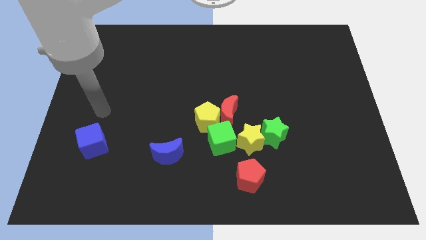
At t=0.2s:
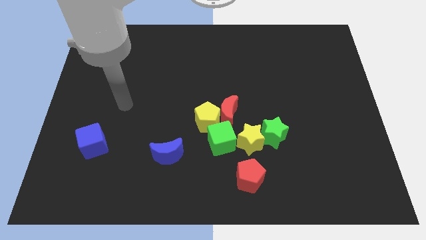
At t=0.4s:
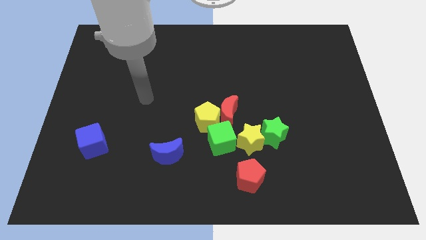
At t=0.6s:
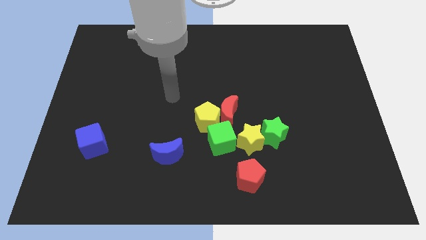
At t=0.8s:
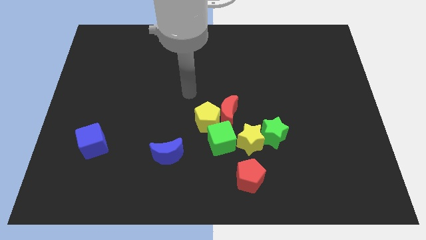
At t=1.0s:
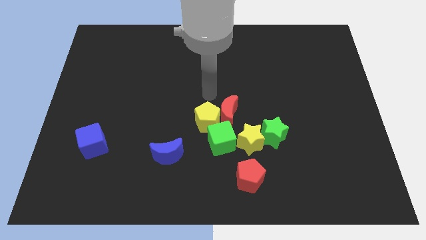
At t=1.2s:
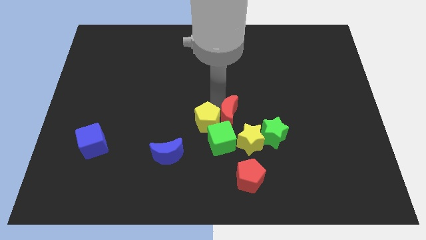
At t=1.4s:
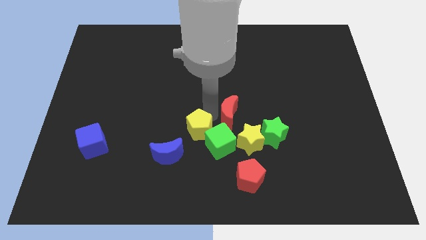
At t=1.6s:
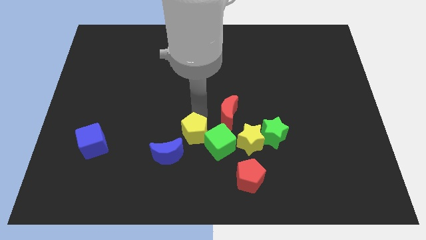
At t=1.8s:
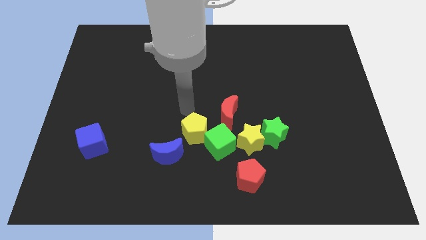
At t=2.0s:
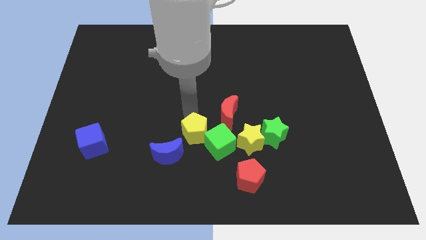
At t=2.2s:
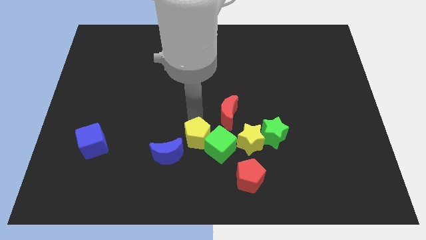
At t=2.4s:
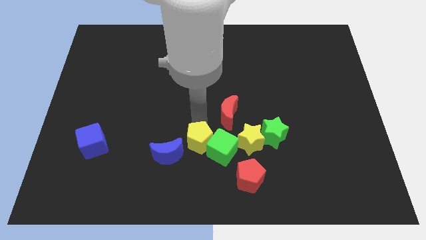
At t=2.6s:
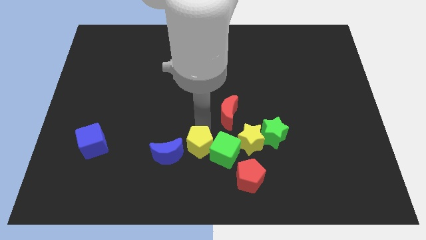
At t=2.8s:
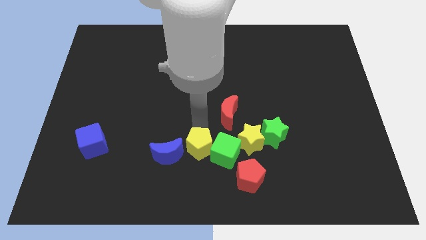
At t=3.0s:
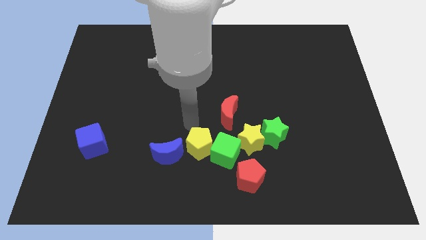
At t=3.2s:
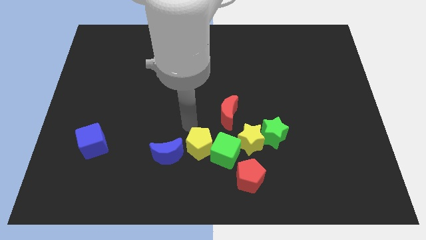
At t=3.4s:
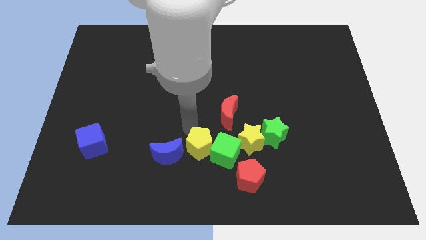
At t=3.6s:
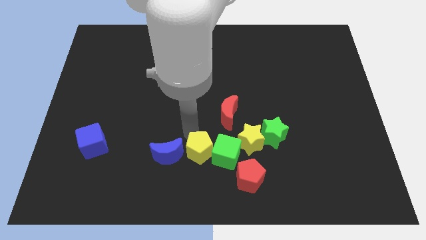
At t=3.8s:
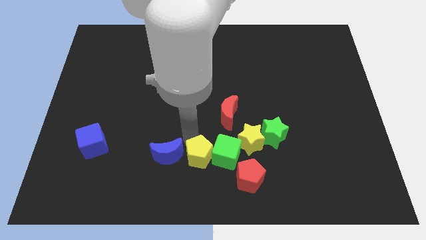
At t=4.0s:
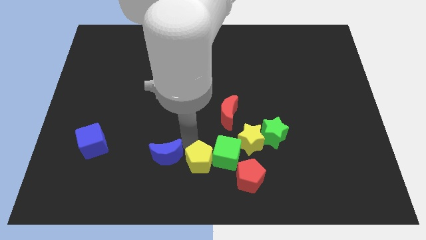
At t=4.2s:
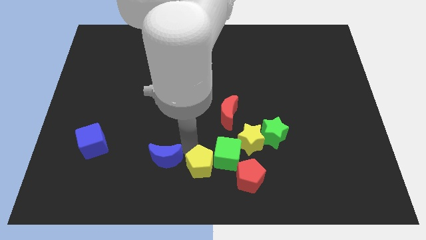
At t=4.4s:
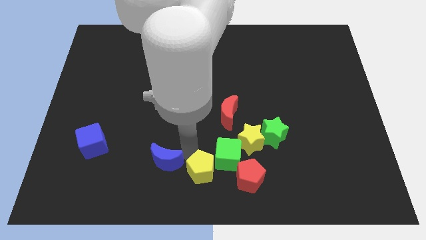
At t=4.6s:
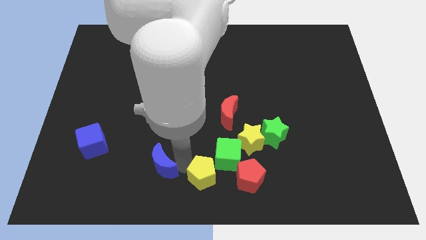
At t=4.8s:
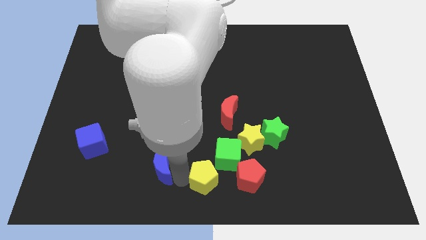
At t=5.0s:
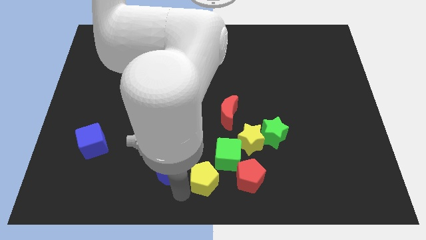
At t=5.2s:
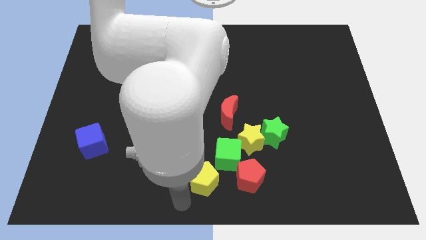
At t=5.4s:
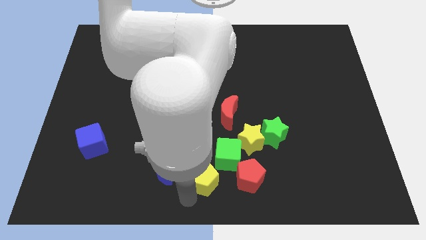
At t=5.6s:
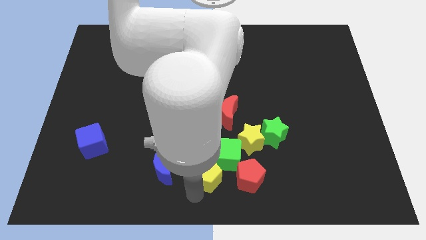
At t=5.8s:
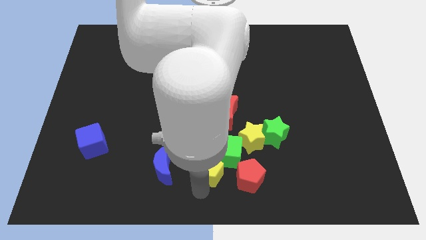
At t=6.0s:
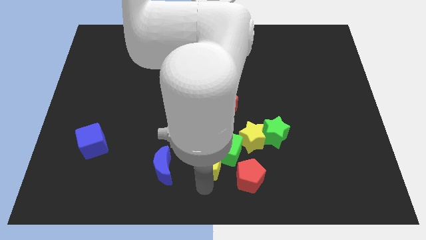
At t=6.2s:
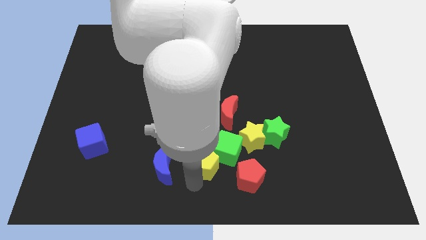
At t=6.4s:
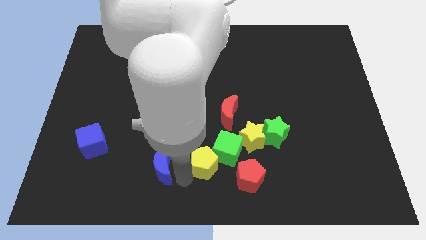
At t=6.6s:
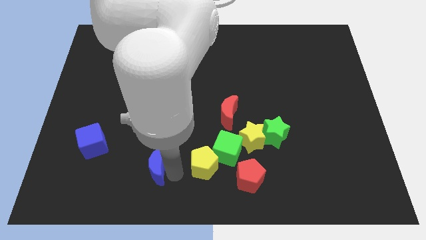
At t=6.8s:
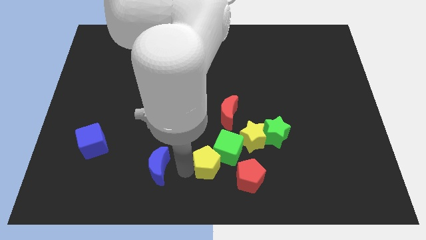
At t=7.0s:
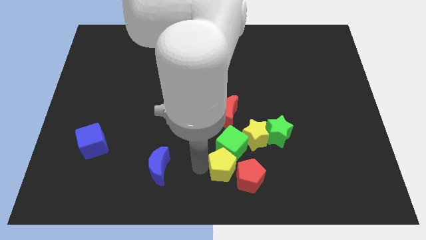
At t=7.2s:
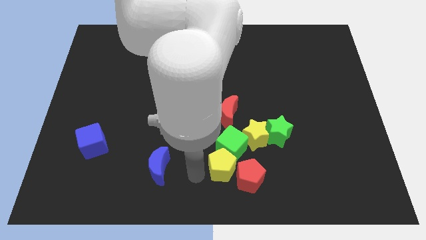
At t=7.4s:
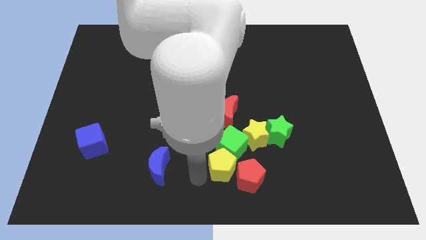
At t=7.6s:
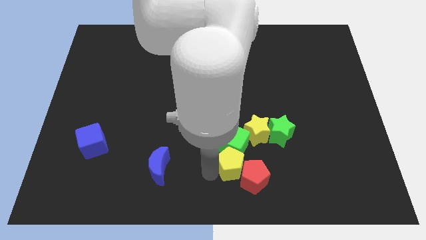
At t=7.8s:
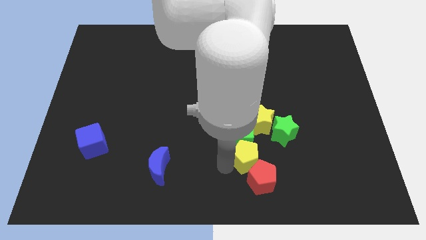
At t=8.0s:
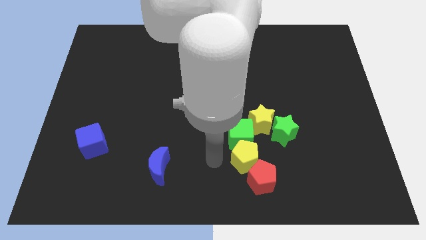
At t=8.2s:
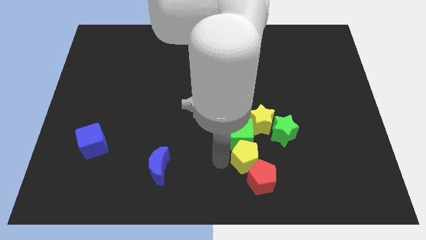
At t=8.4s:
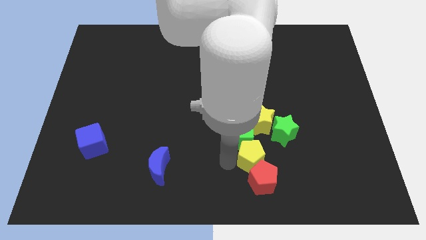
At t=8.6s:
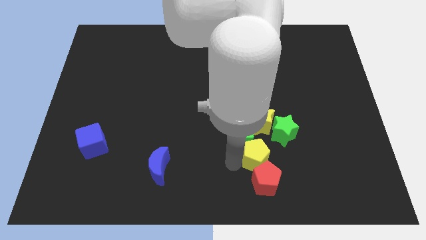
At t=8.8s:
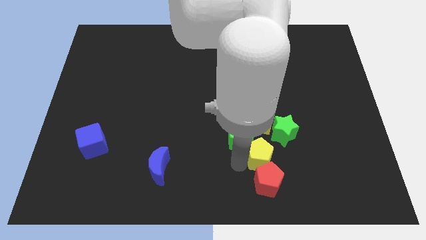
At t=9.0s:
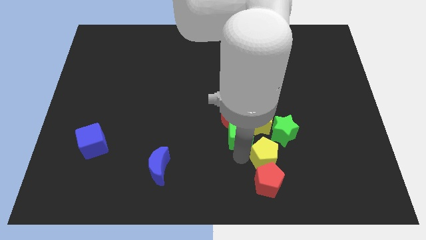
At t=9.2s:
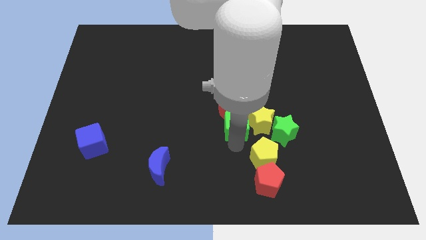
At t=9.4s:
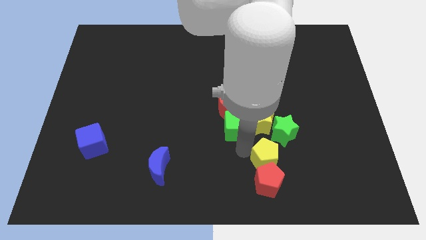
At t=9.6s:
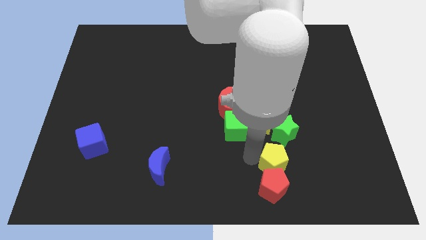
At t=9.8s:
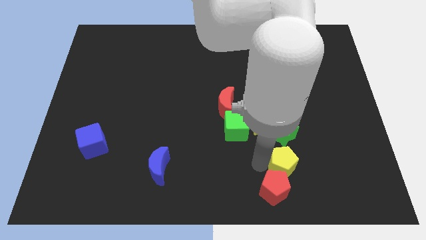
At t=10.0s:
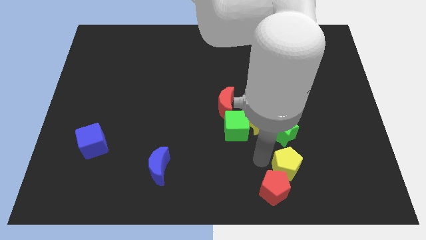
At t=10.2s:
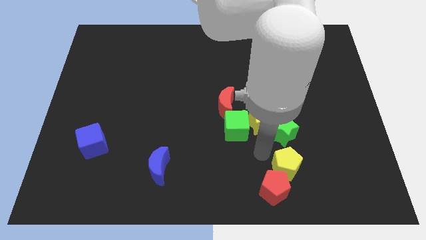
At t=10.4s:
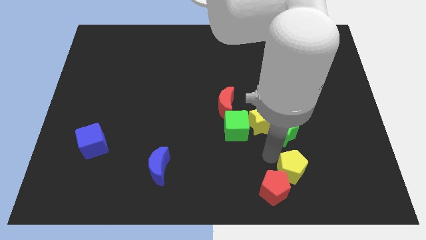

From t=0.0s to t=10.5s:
slide the yellow pentagon right of the red pentagon

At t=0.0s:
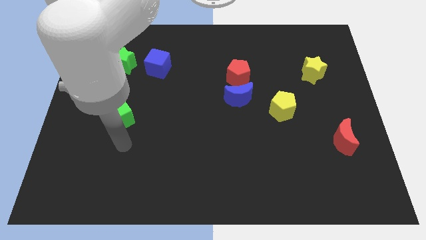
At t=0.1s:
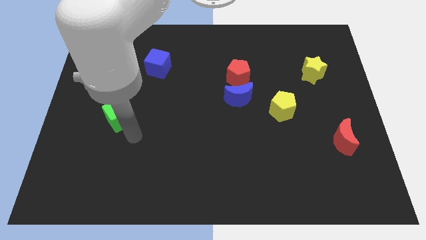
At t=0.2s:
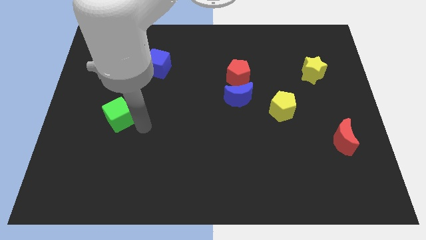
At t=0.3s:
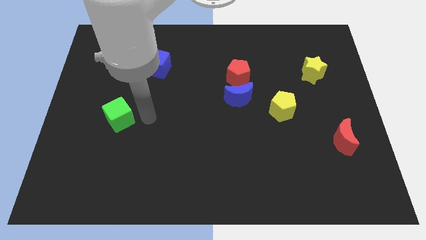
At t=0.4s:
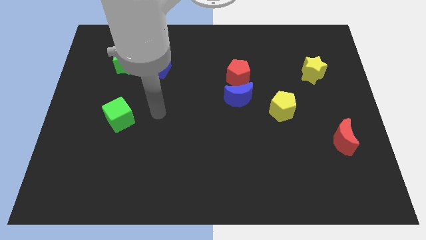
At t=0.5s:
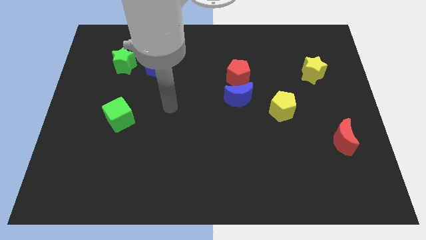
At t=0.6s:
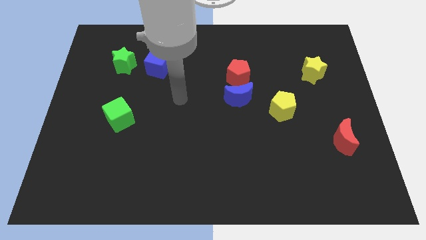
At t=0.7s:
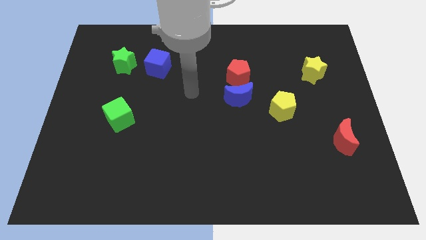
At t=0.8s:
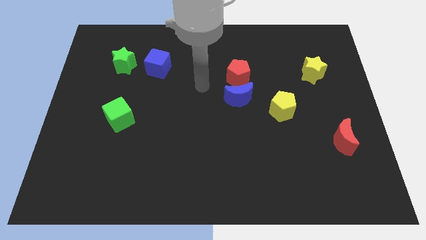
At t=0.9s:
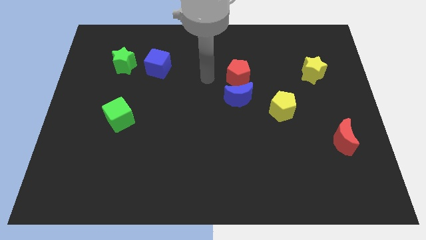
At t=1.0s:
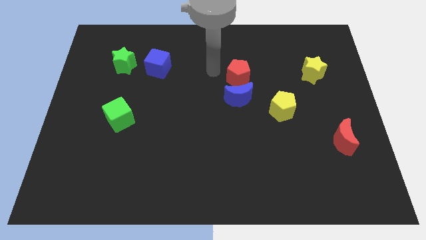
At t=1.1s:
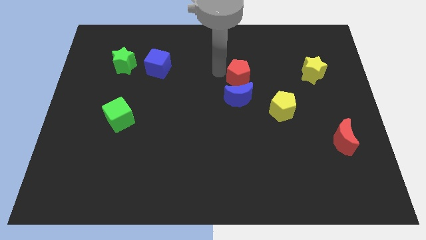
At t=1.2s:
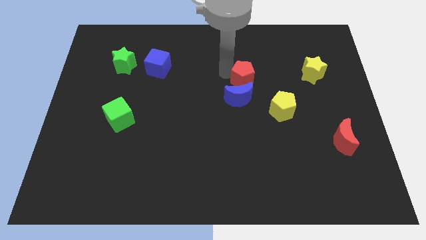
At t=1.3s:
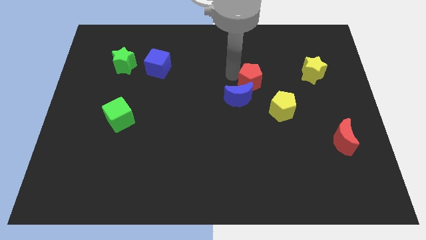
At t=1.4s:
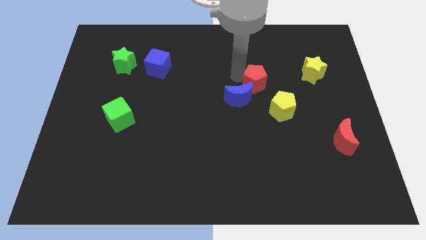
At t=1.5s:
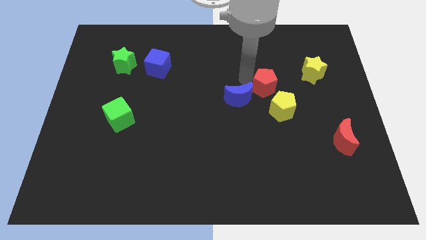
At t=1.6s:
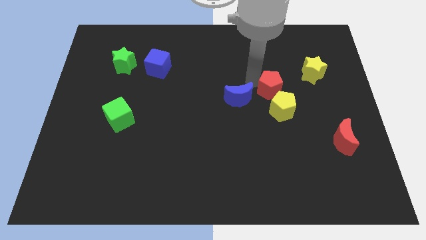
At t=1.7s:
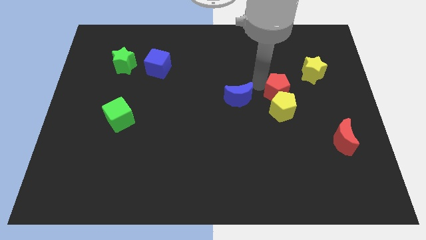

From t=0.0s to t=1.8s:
put the red pentagon diagonally down and to the left of the yellow star

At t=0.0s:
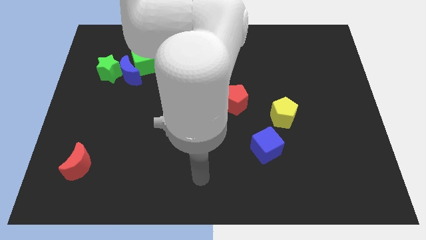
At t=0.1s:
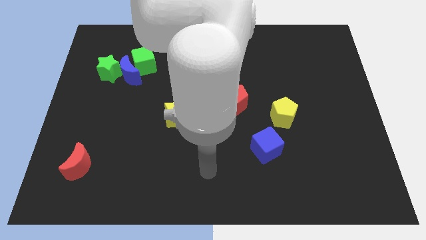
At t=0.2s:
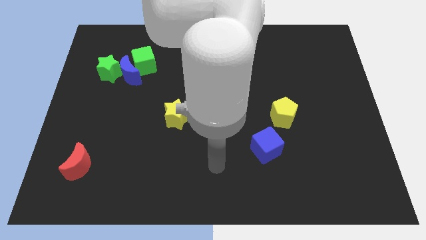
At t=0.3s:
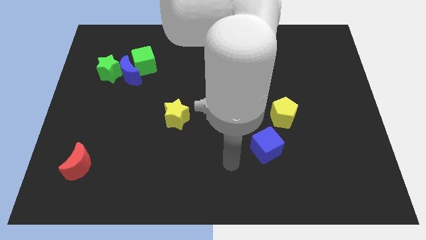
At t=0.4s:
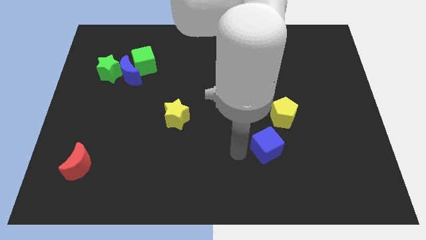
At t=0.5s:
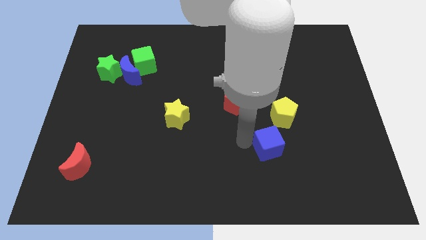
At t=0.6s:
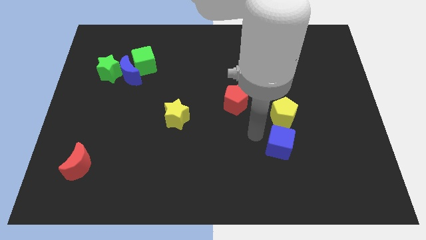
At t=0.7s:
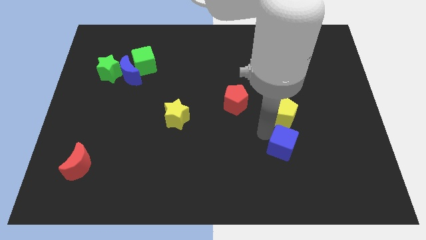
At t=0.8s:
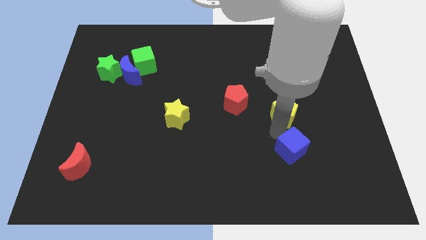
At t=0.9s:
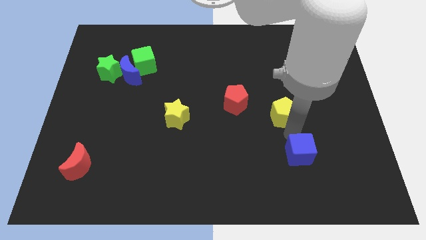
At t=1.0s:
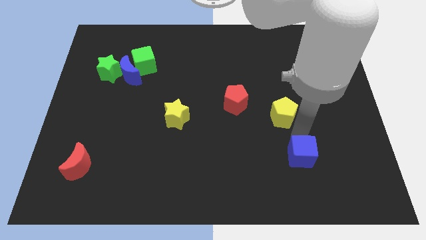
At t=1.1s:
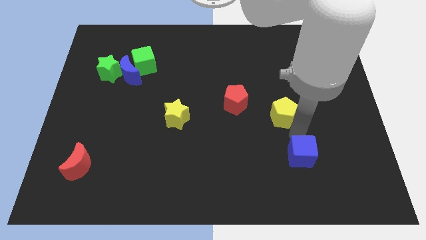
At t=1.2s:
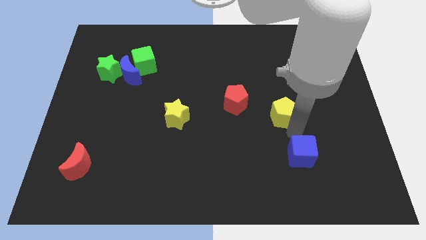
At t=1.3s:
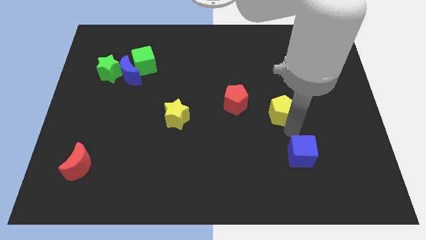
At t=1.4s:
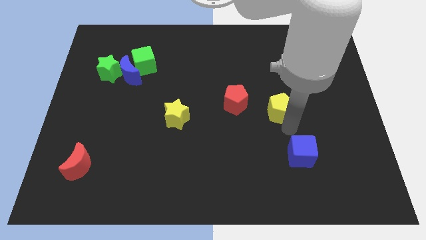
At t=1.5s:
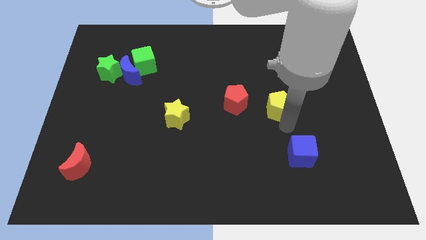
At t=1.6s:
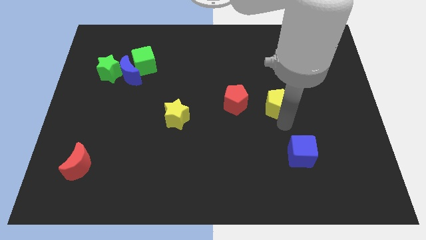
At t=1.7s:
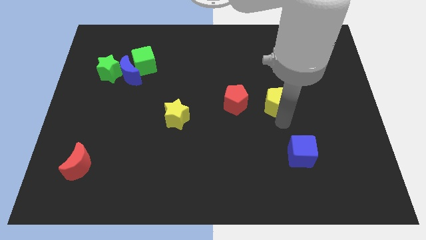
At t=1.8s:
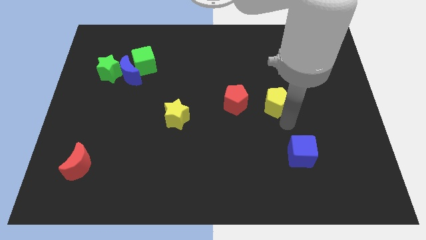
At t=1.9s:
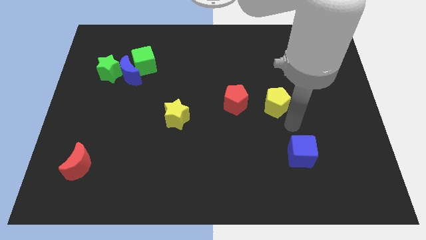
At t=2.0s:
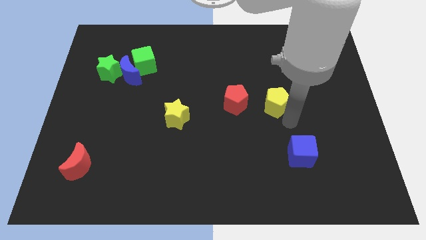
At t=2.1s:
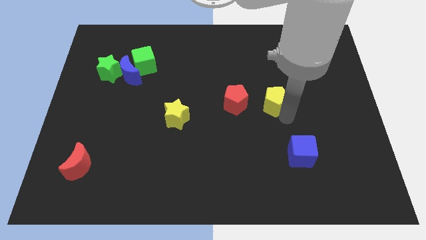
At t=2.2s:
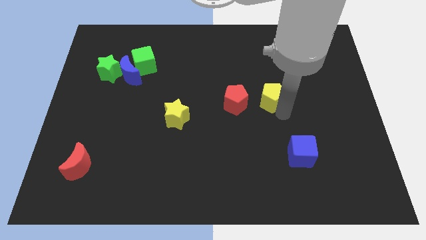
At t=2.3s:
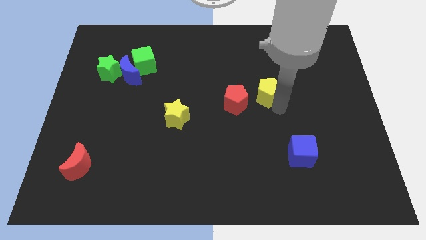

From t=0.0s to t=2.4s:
push the yellow pentagon to the top right side of the red pentagon
